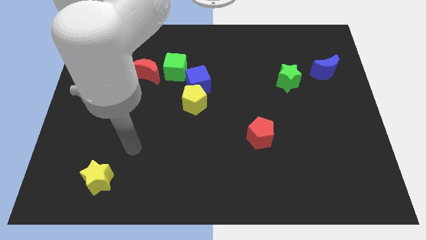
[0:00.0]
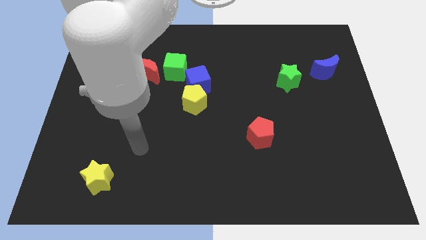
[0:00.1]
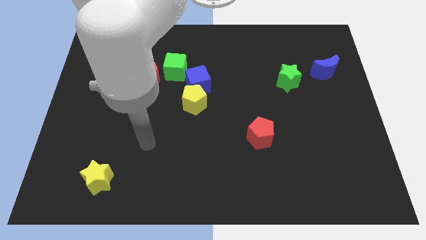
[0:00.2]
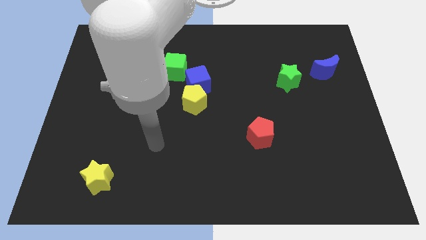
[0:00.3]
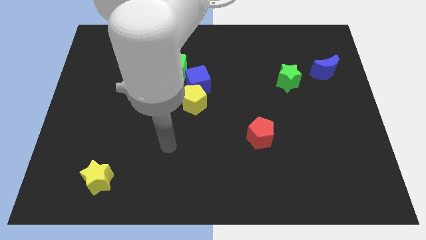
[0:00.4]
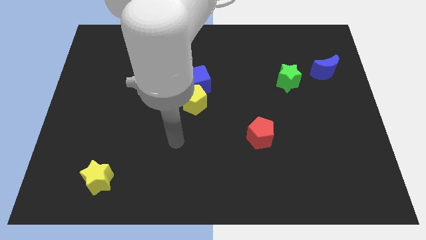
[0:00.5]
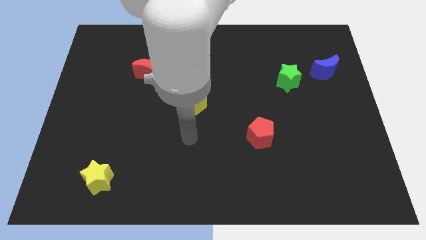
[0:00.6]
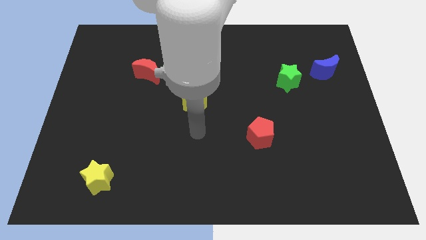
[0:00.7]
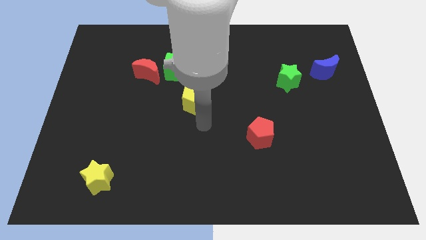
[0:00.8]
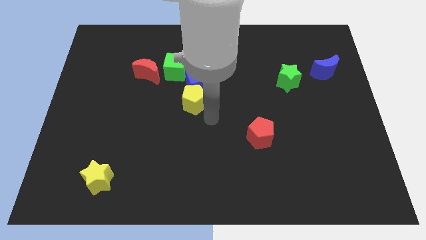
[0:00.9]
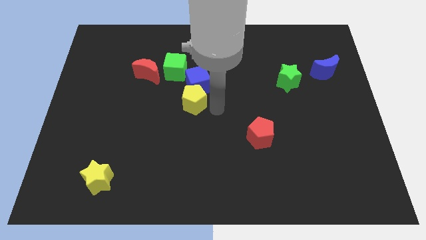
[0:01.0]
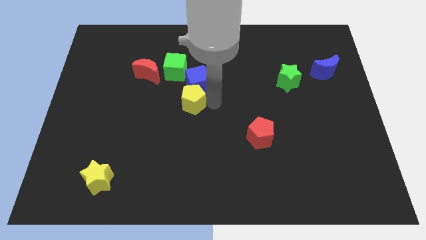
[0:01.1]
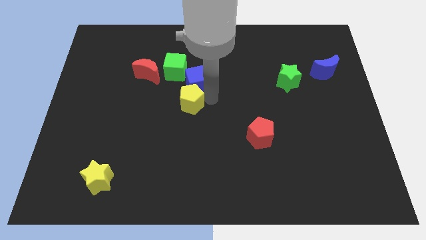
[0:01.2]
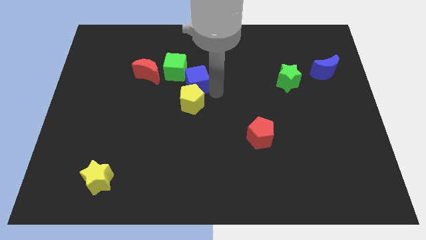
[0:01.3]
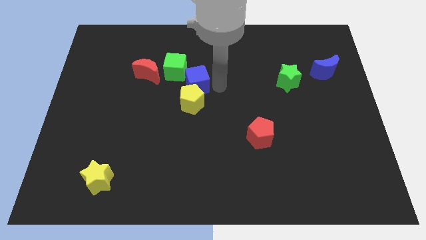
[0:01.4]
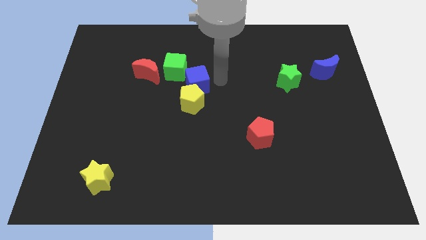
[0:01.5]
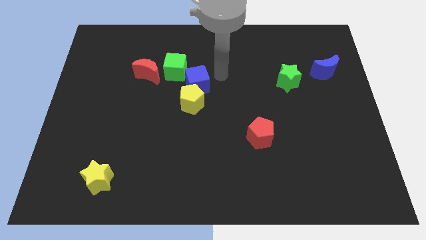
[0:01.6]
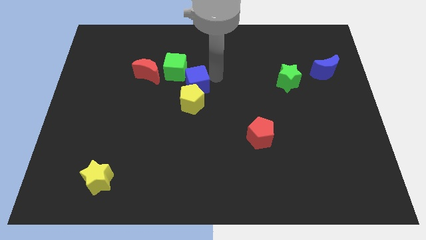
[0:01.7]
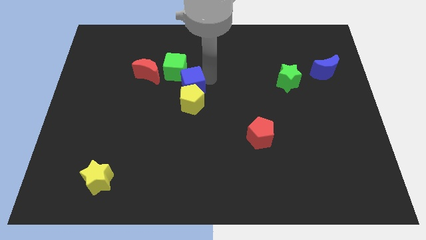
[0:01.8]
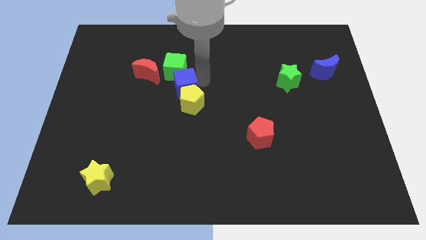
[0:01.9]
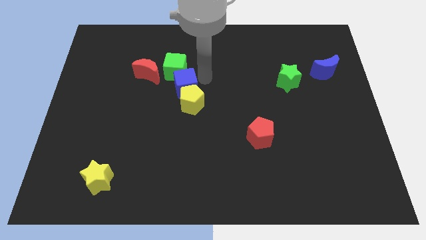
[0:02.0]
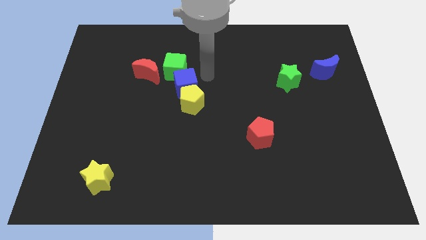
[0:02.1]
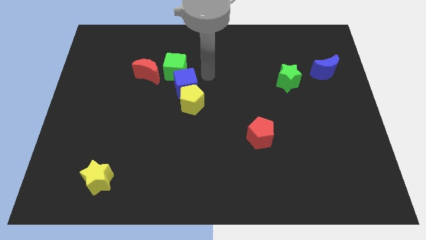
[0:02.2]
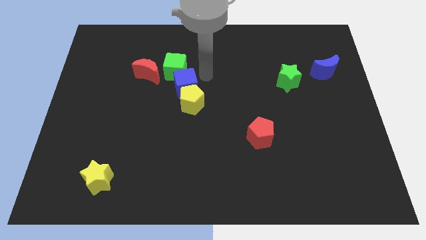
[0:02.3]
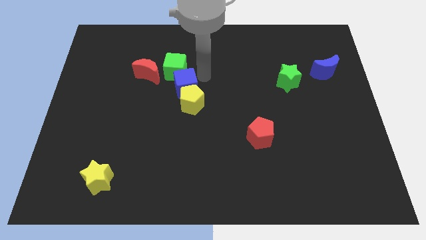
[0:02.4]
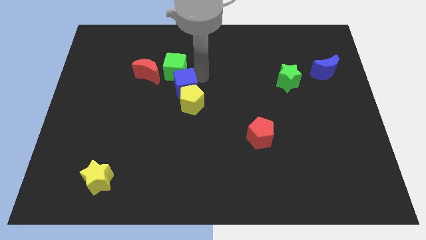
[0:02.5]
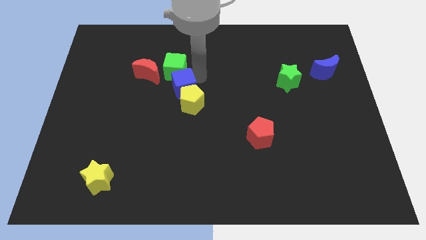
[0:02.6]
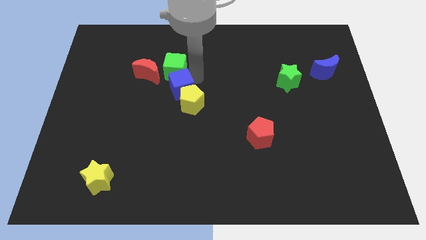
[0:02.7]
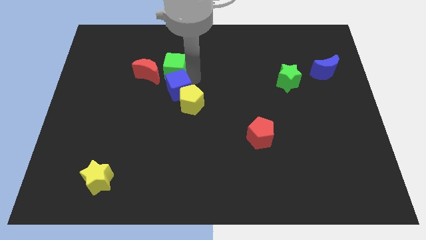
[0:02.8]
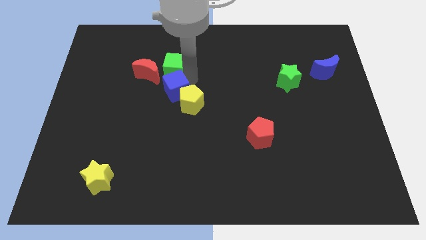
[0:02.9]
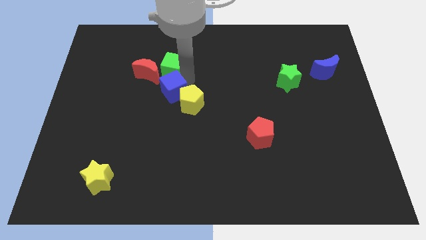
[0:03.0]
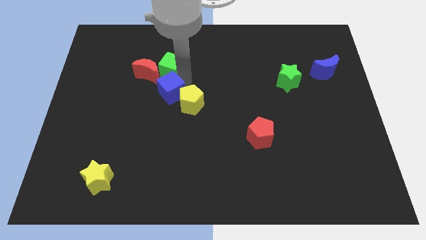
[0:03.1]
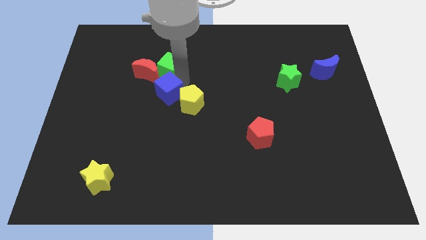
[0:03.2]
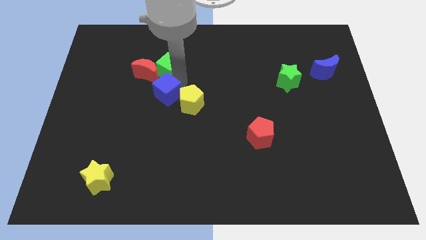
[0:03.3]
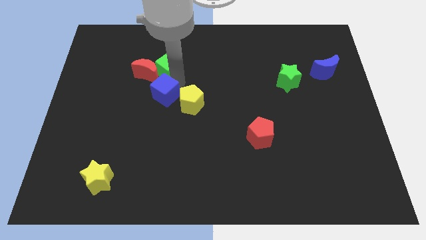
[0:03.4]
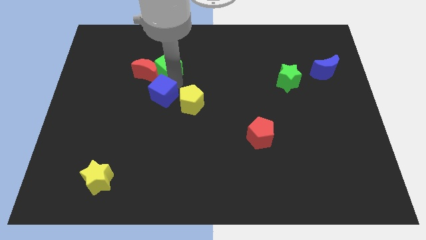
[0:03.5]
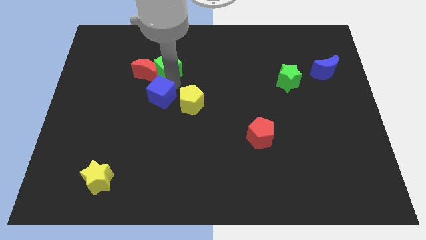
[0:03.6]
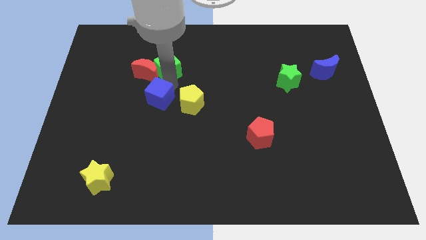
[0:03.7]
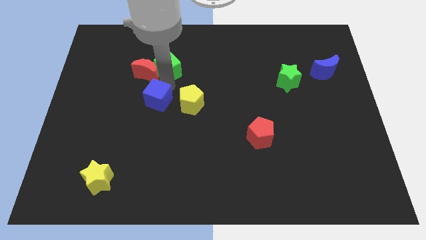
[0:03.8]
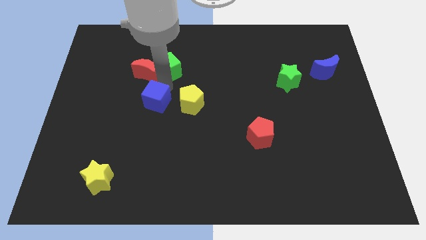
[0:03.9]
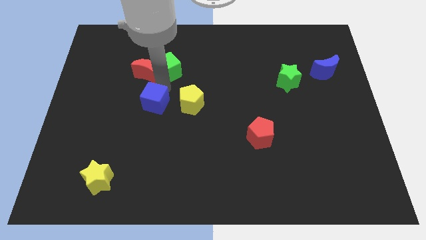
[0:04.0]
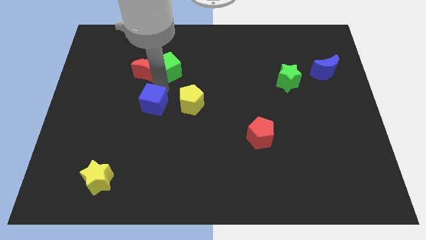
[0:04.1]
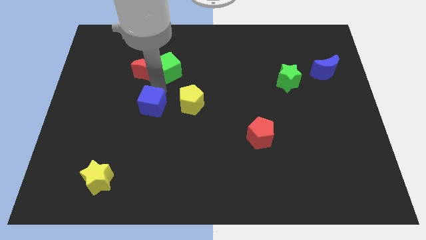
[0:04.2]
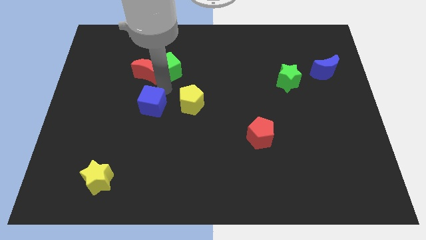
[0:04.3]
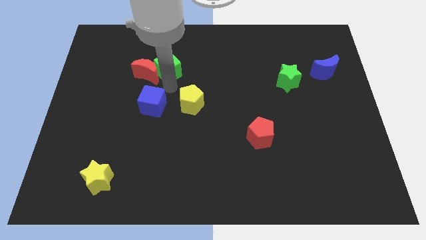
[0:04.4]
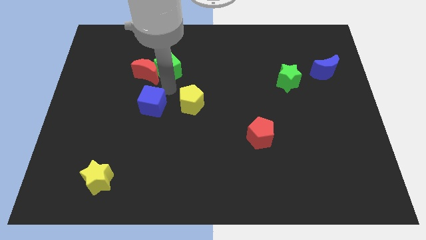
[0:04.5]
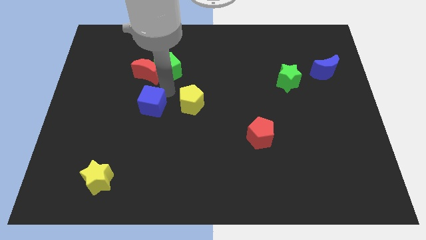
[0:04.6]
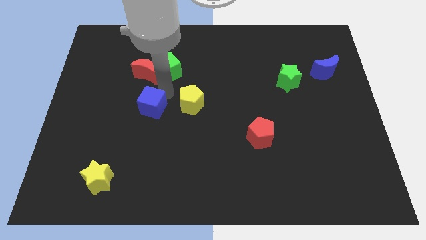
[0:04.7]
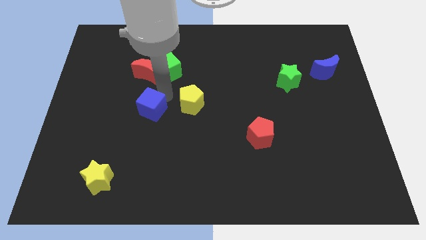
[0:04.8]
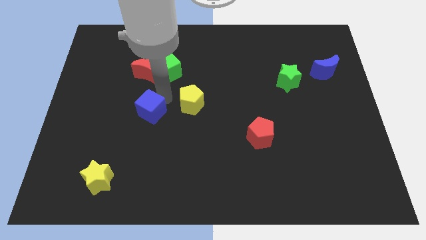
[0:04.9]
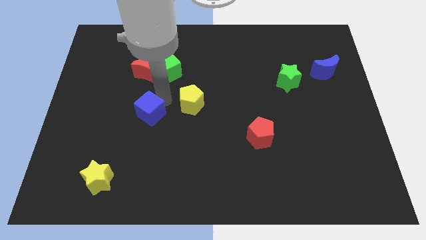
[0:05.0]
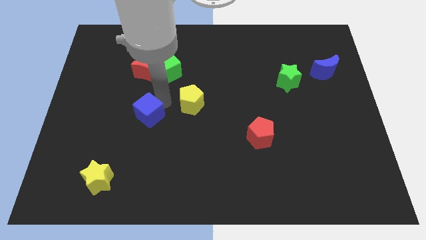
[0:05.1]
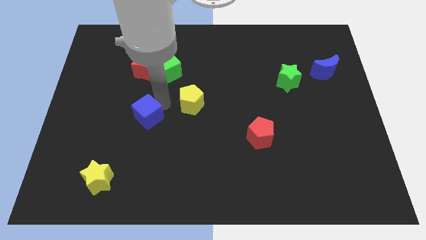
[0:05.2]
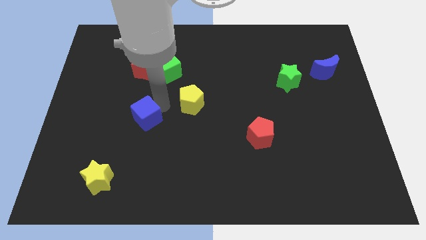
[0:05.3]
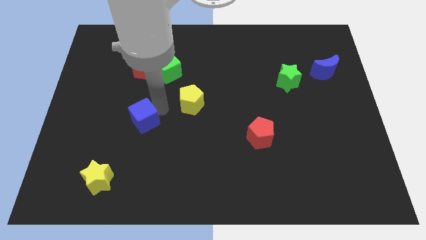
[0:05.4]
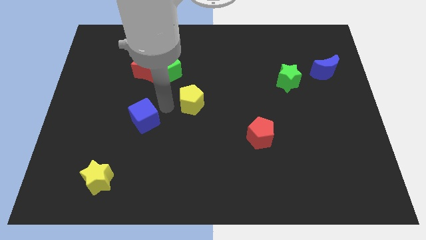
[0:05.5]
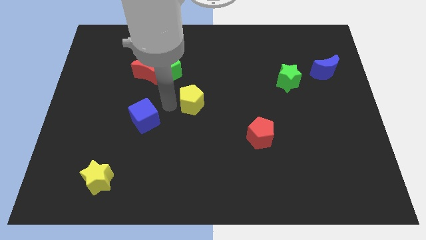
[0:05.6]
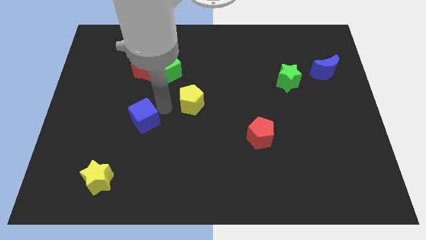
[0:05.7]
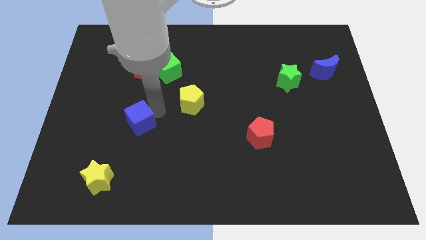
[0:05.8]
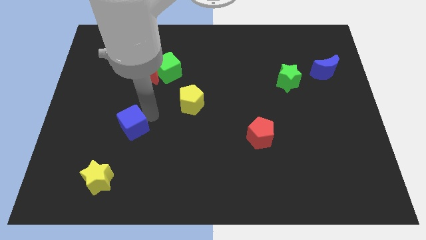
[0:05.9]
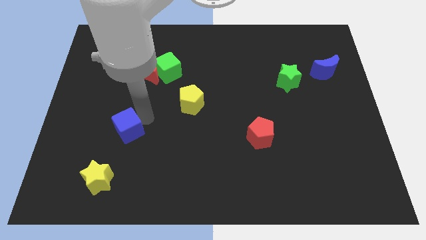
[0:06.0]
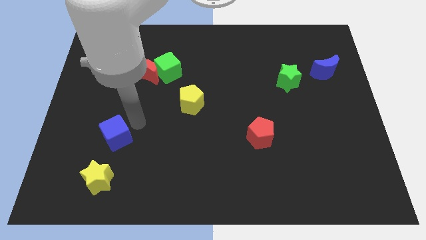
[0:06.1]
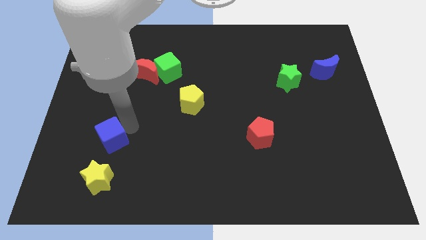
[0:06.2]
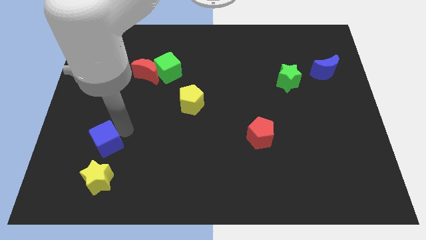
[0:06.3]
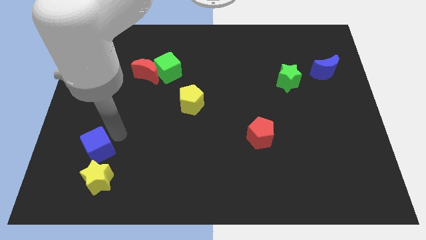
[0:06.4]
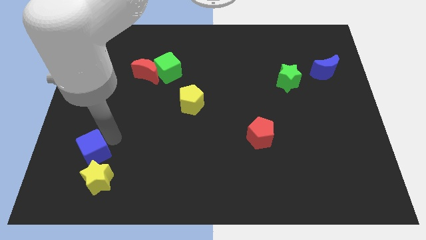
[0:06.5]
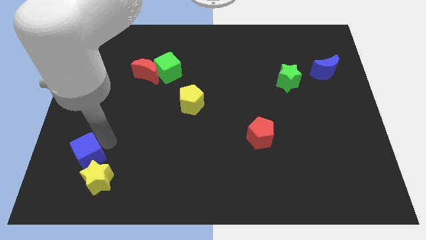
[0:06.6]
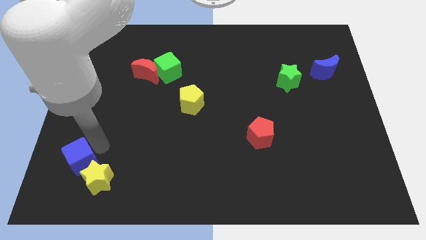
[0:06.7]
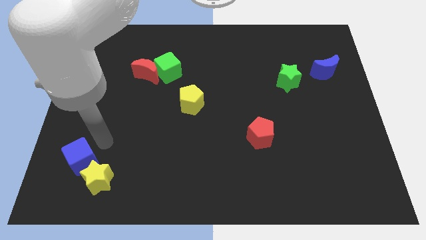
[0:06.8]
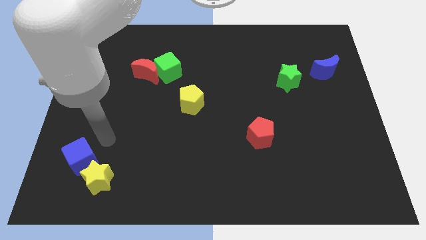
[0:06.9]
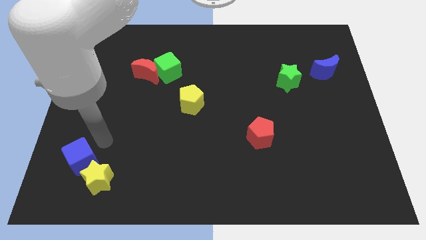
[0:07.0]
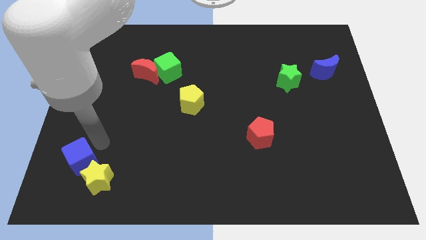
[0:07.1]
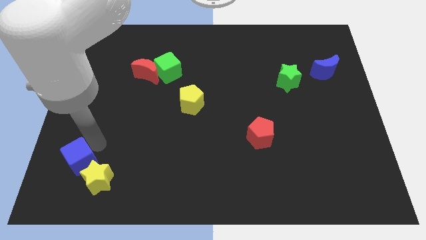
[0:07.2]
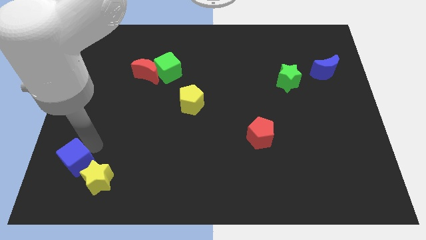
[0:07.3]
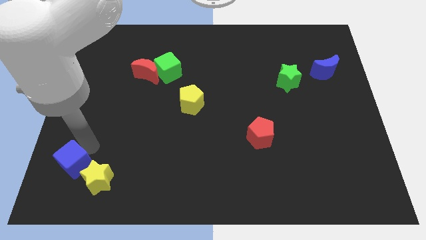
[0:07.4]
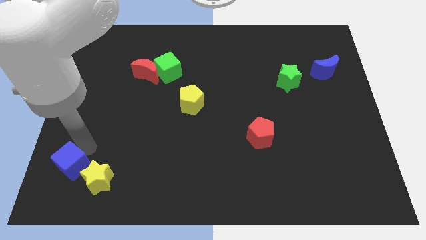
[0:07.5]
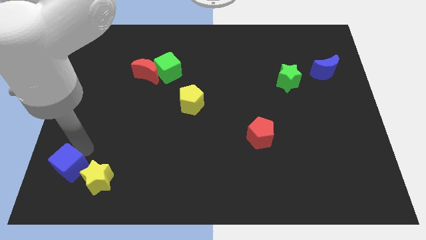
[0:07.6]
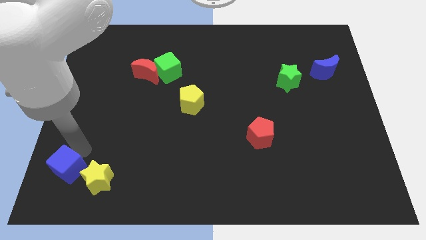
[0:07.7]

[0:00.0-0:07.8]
move the blue cube to the bottom left corner
